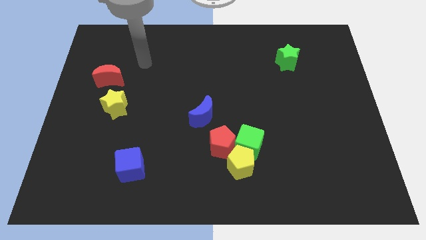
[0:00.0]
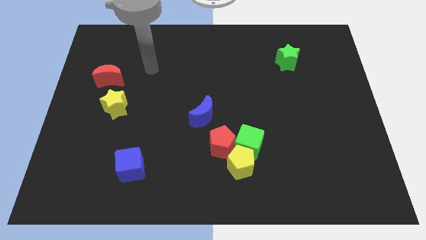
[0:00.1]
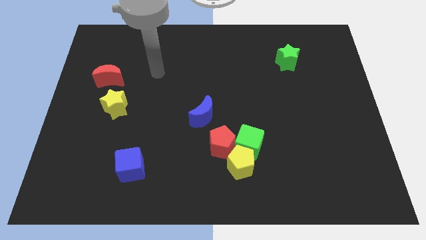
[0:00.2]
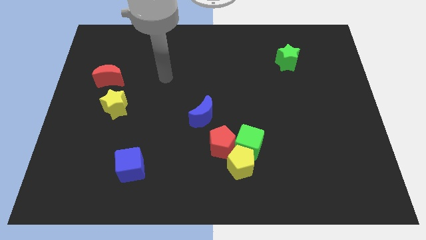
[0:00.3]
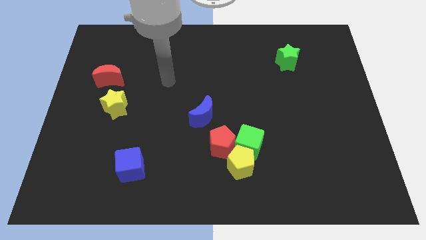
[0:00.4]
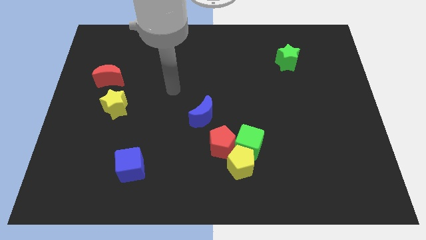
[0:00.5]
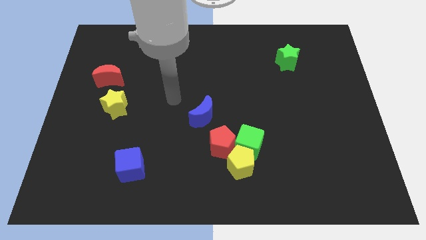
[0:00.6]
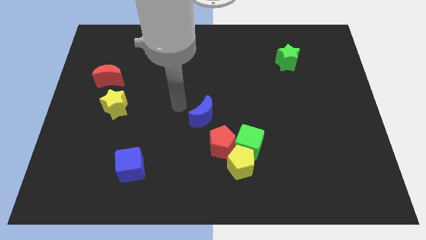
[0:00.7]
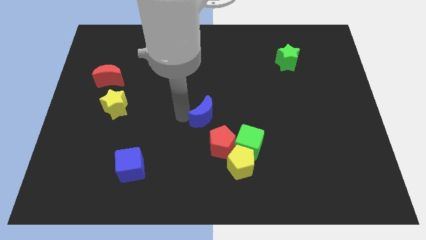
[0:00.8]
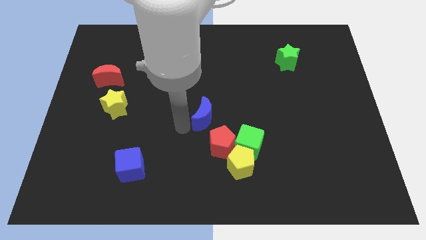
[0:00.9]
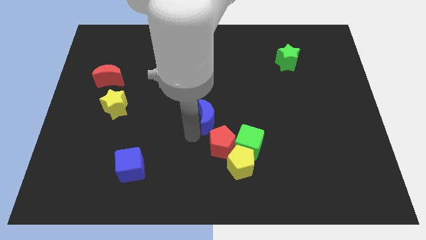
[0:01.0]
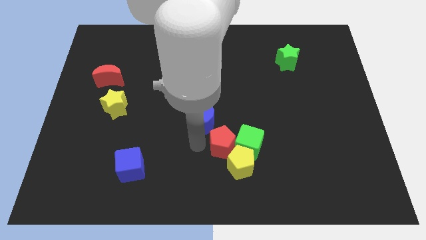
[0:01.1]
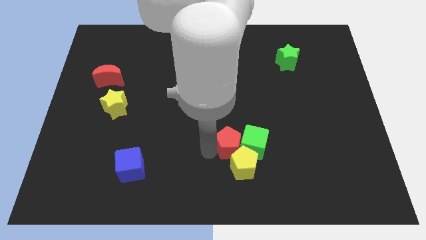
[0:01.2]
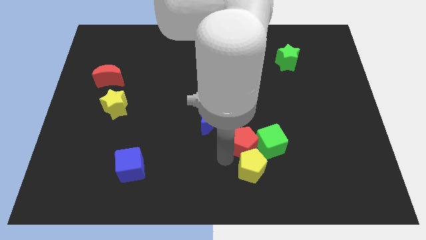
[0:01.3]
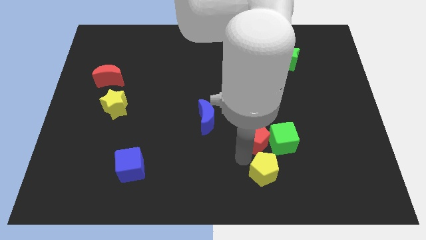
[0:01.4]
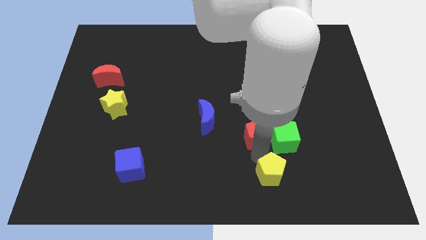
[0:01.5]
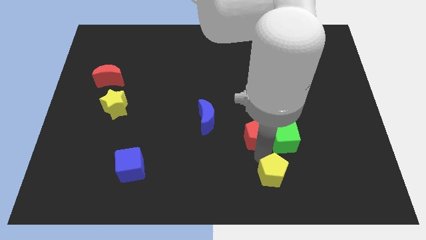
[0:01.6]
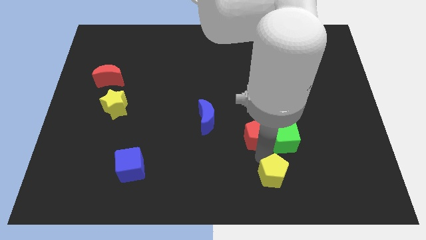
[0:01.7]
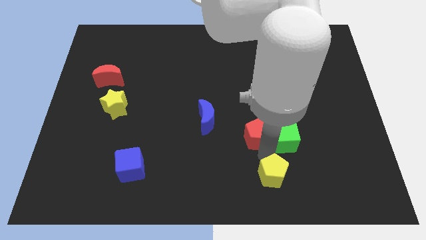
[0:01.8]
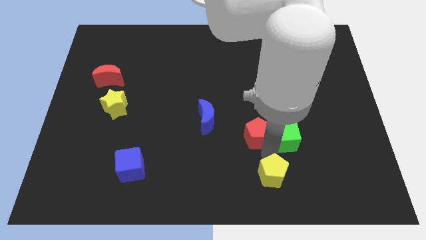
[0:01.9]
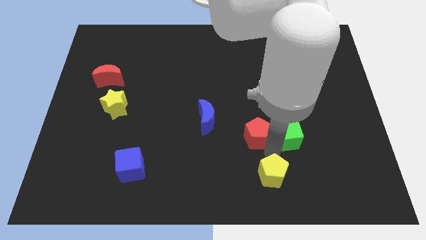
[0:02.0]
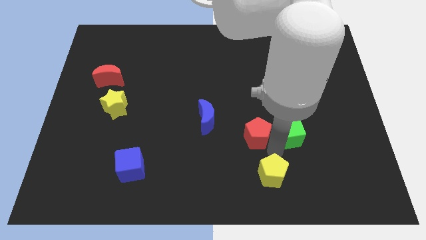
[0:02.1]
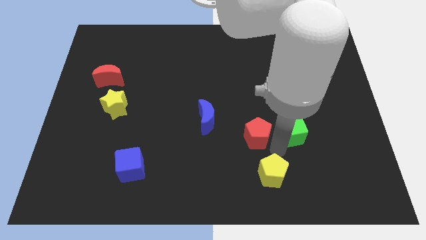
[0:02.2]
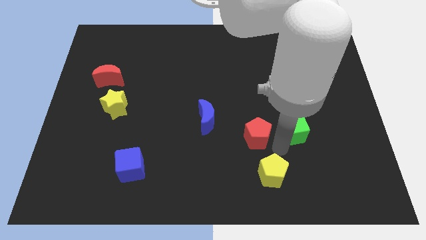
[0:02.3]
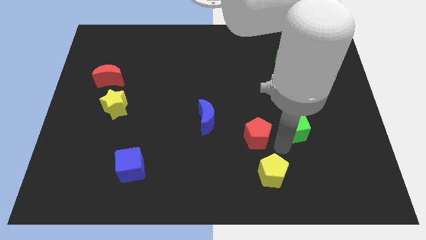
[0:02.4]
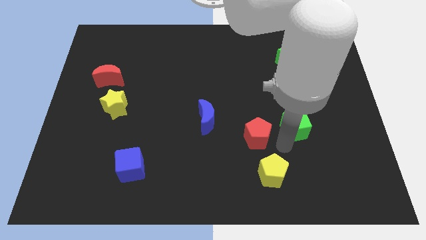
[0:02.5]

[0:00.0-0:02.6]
separate the green cube from the yellow pentagon and red pentagon

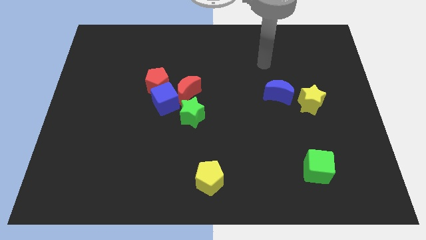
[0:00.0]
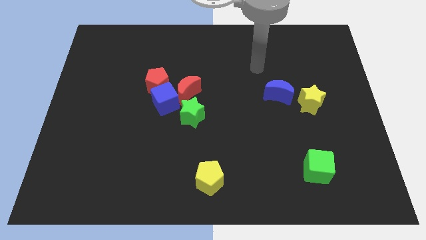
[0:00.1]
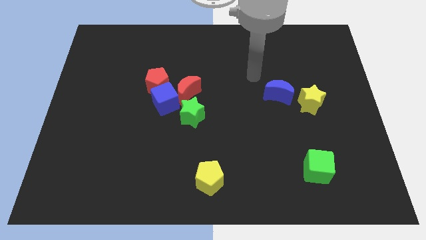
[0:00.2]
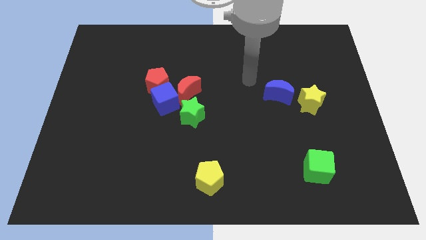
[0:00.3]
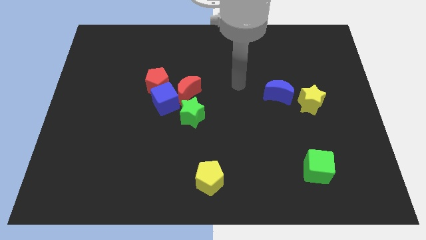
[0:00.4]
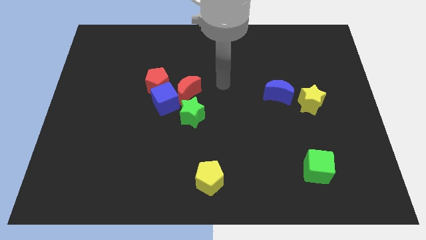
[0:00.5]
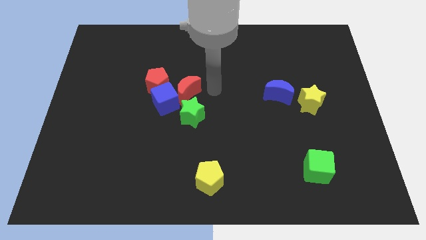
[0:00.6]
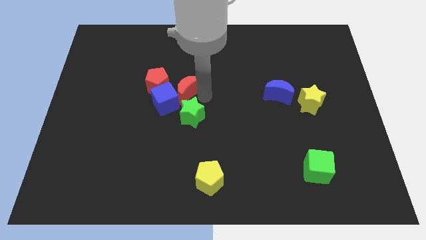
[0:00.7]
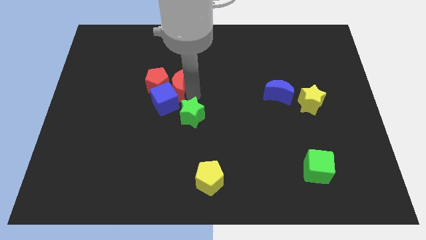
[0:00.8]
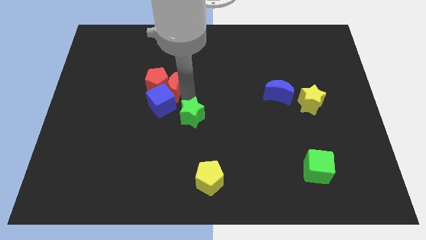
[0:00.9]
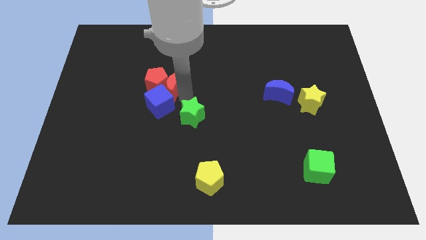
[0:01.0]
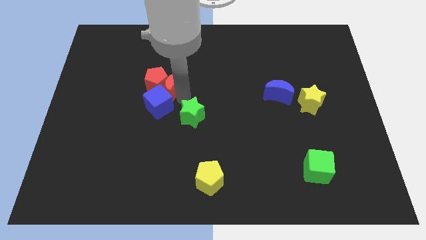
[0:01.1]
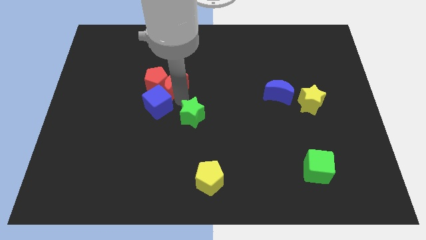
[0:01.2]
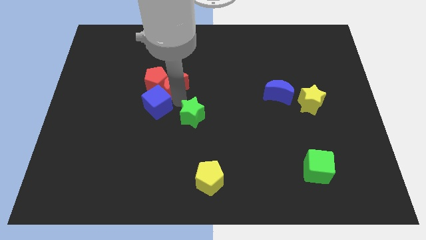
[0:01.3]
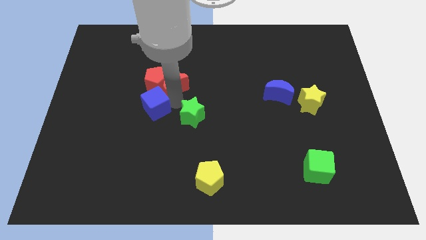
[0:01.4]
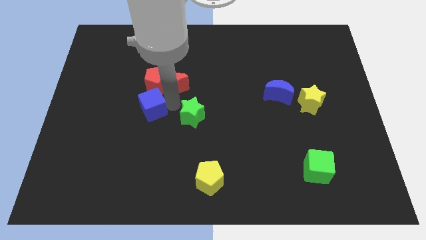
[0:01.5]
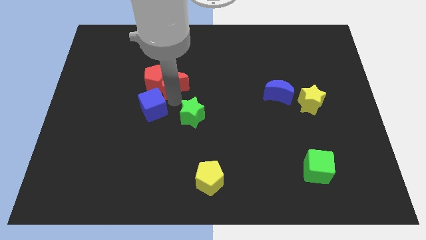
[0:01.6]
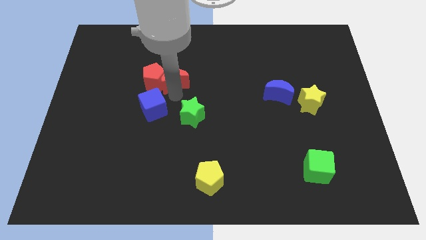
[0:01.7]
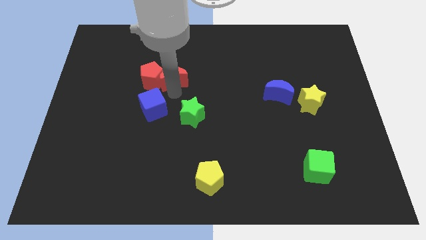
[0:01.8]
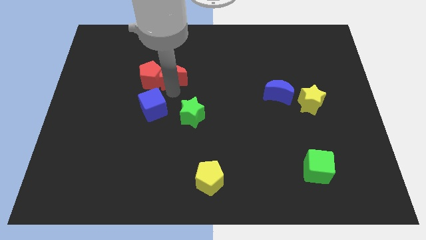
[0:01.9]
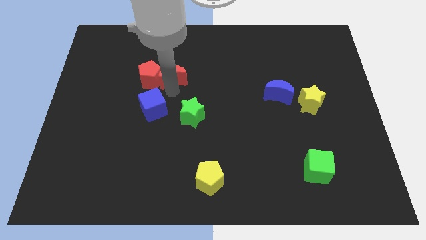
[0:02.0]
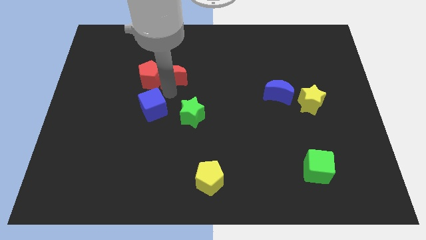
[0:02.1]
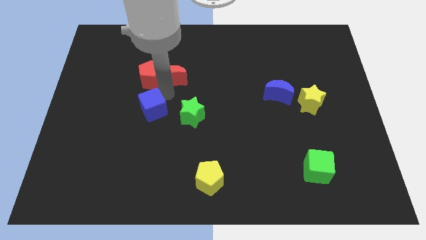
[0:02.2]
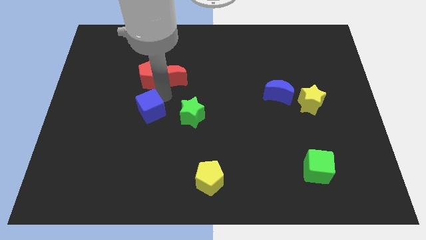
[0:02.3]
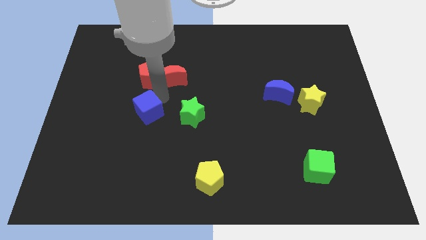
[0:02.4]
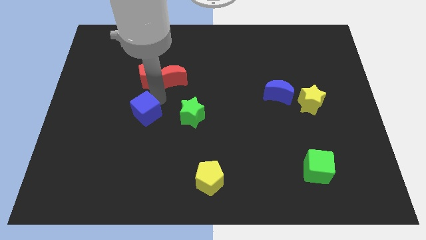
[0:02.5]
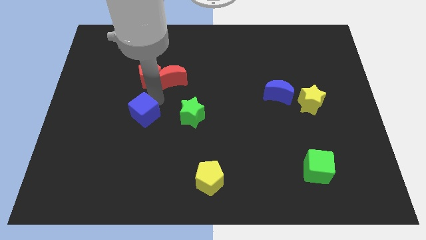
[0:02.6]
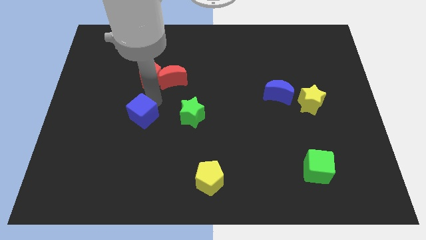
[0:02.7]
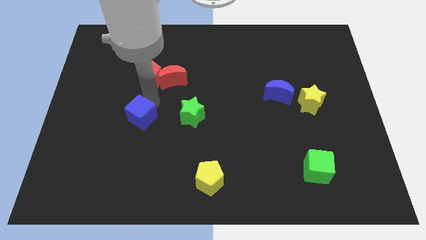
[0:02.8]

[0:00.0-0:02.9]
pull the blue cube apart from the clump

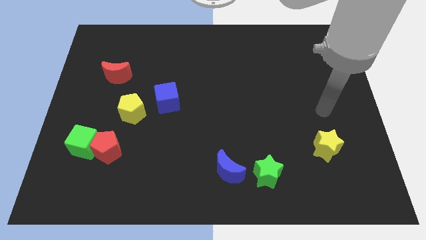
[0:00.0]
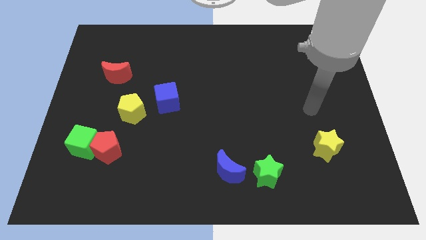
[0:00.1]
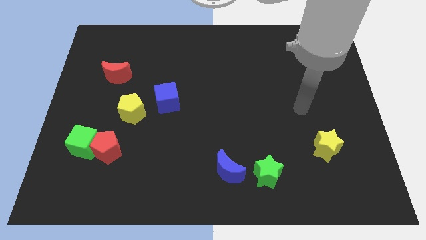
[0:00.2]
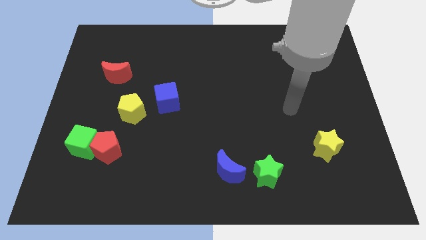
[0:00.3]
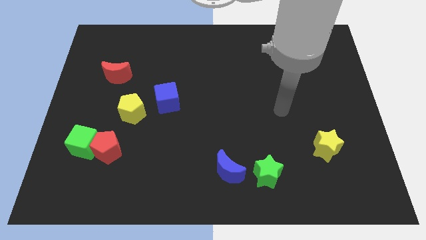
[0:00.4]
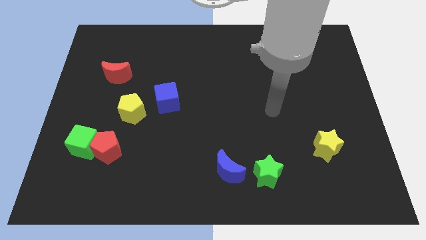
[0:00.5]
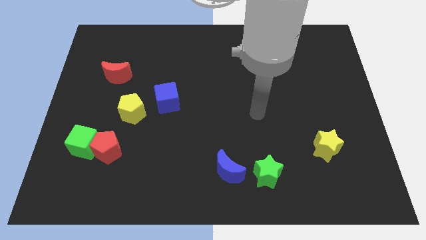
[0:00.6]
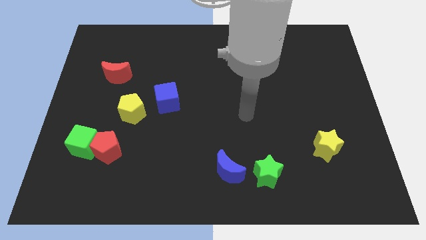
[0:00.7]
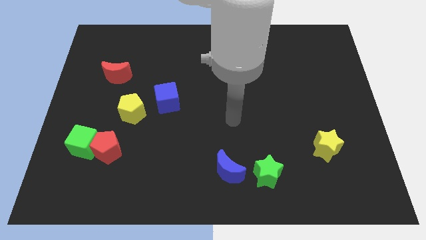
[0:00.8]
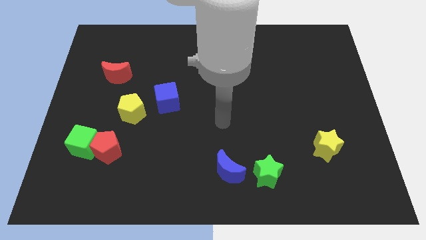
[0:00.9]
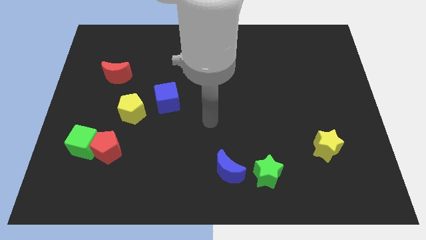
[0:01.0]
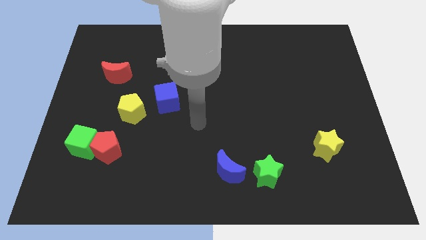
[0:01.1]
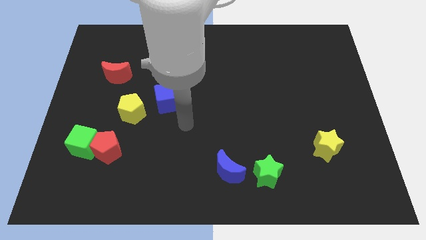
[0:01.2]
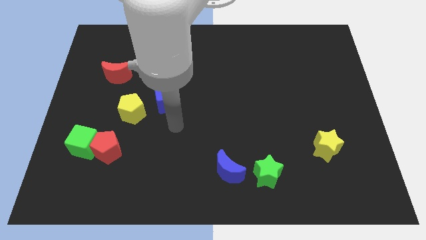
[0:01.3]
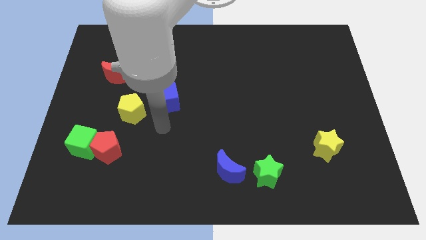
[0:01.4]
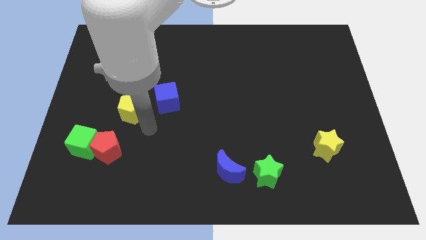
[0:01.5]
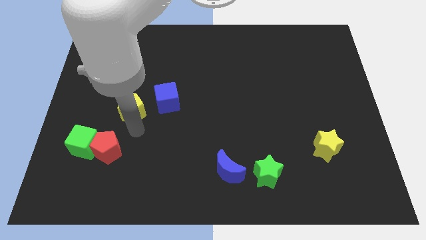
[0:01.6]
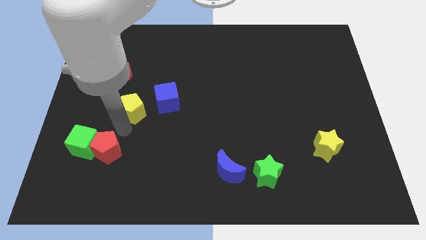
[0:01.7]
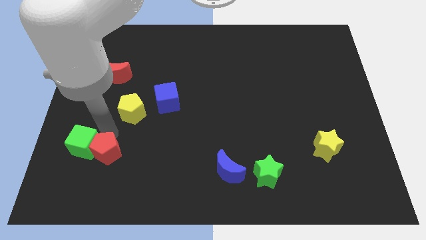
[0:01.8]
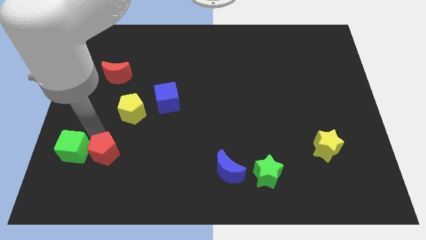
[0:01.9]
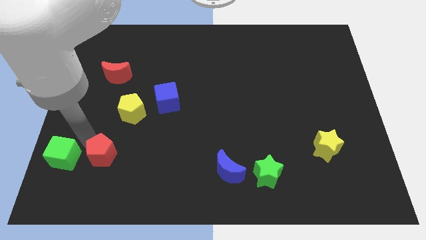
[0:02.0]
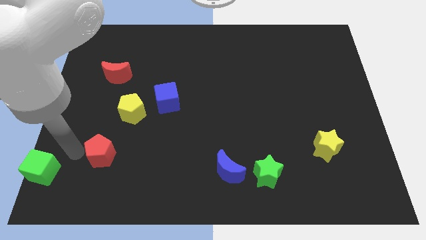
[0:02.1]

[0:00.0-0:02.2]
pull the red pentagon apart from the green cube

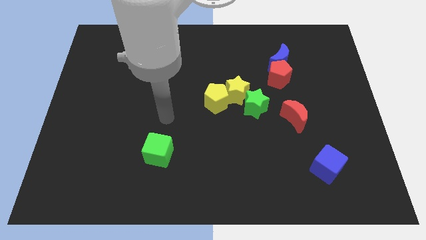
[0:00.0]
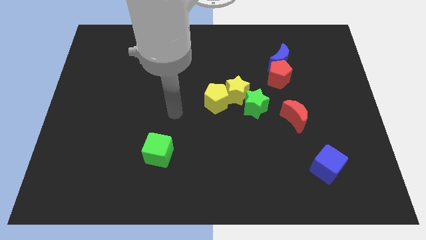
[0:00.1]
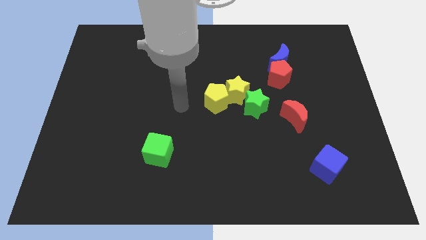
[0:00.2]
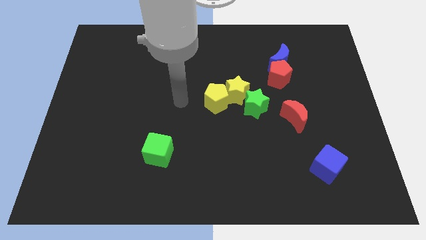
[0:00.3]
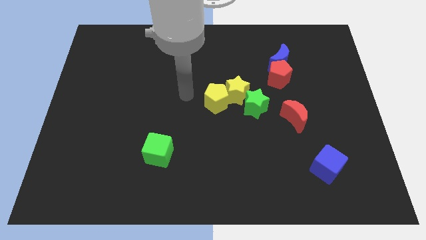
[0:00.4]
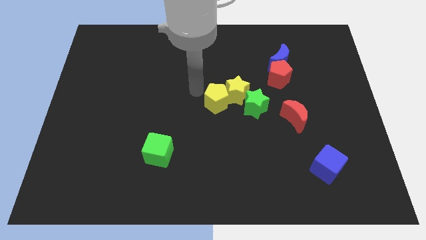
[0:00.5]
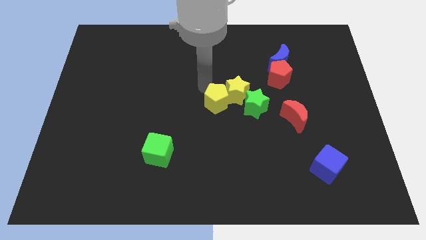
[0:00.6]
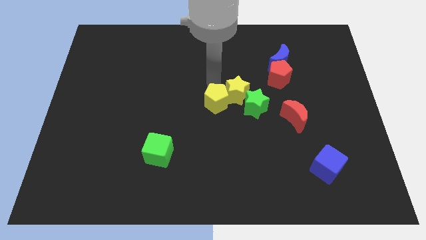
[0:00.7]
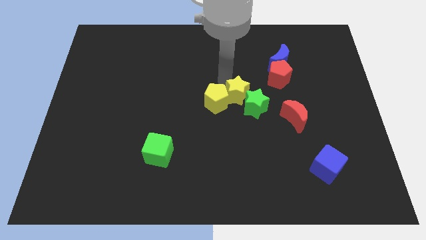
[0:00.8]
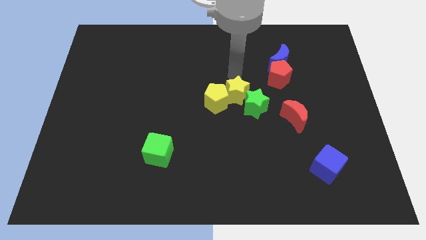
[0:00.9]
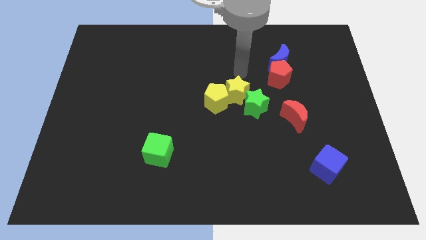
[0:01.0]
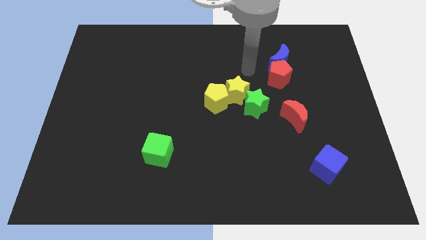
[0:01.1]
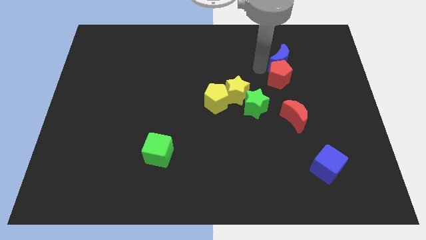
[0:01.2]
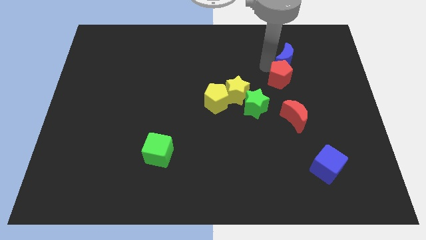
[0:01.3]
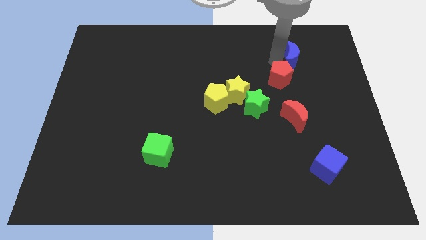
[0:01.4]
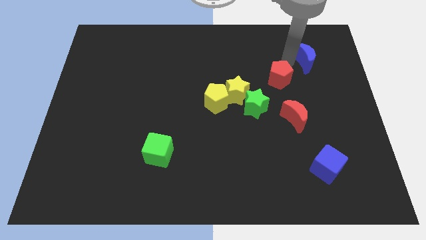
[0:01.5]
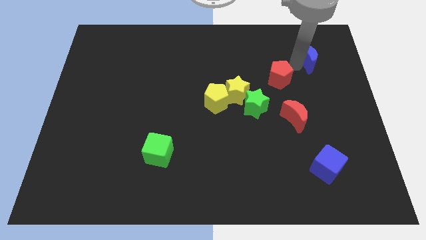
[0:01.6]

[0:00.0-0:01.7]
pull the red pentagon apart from the blue moon
